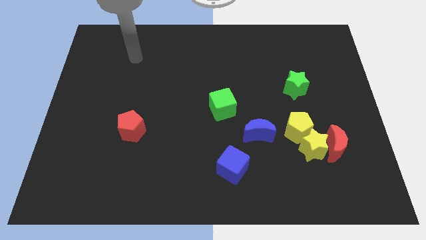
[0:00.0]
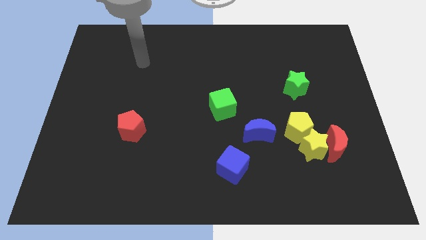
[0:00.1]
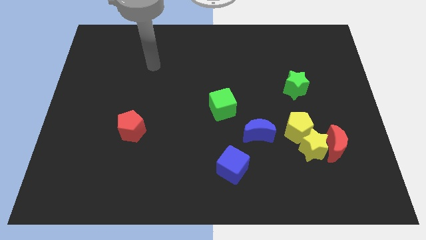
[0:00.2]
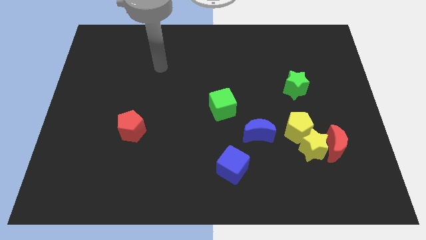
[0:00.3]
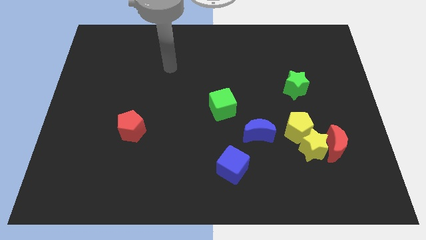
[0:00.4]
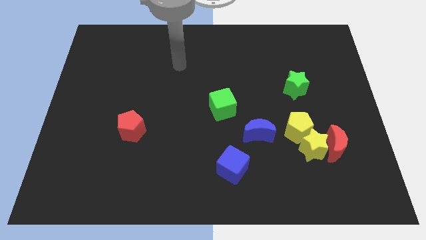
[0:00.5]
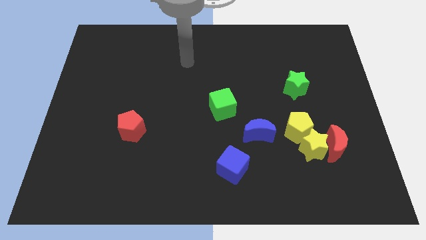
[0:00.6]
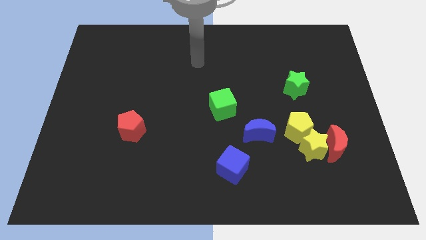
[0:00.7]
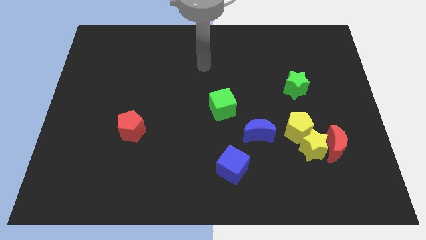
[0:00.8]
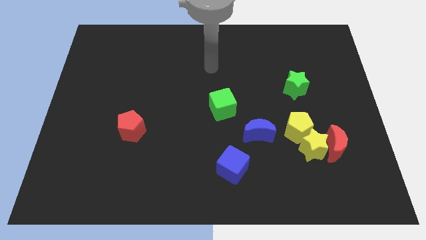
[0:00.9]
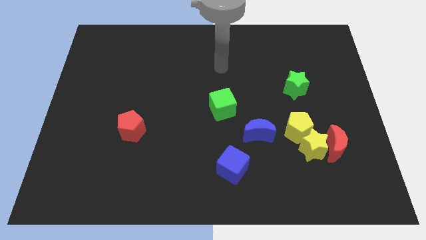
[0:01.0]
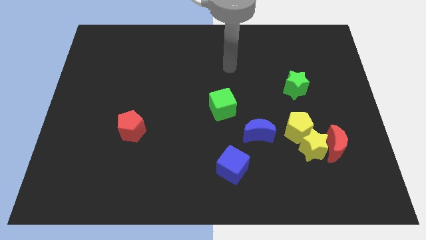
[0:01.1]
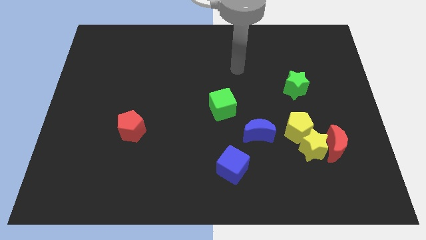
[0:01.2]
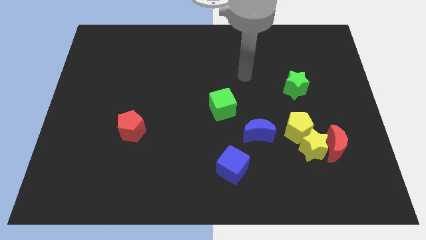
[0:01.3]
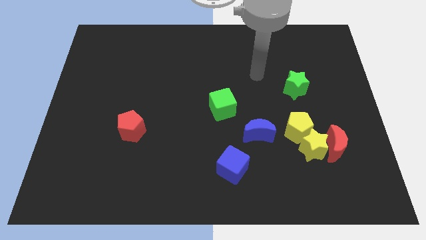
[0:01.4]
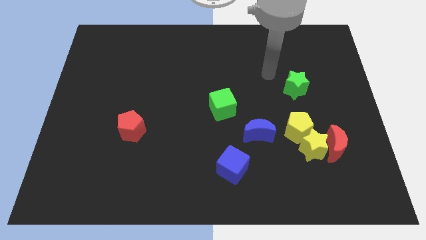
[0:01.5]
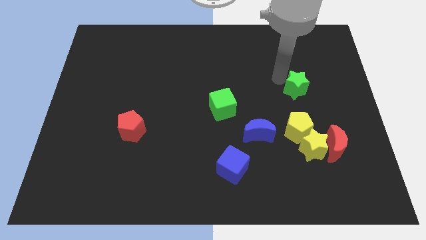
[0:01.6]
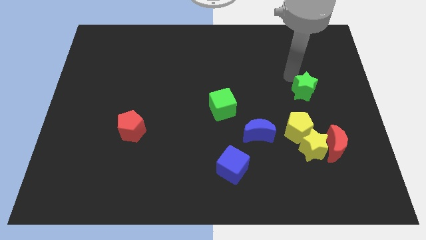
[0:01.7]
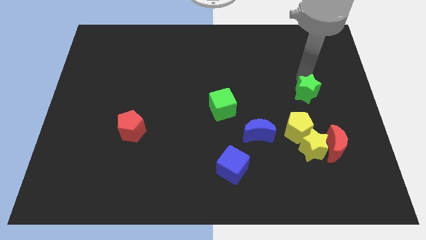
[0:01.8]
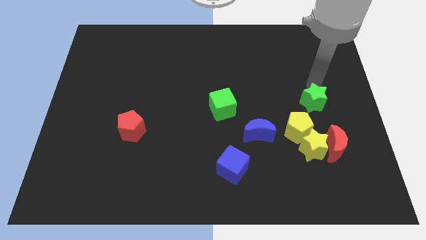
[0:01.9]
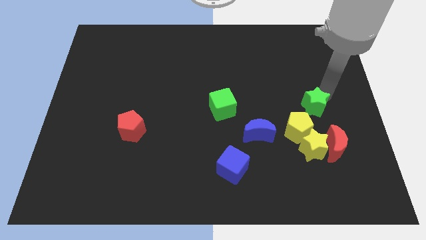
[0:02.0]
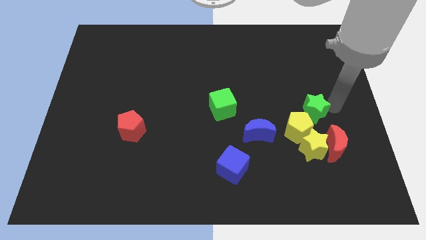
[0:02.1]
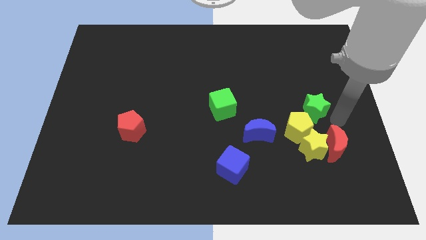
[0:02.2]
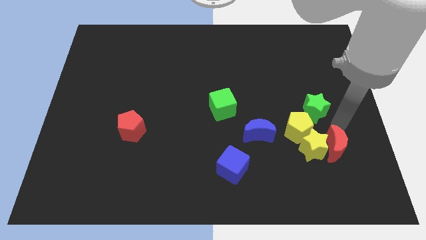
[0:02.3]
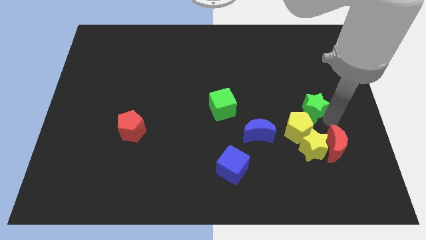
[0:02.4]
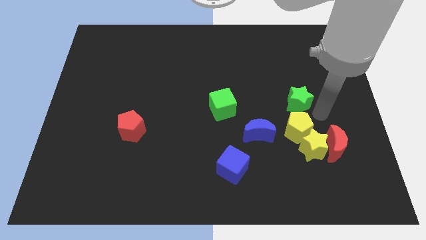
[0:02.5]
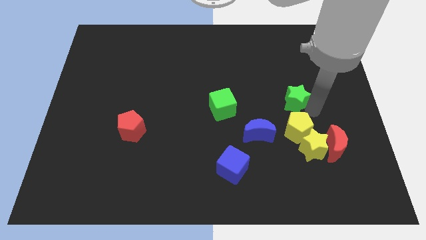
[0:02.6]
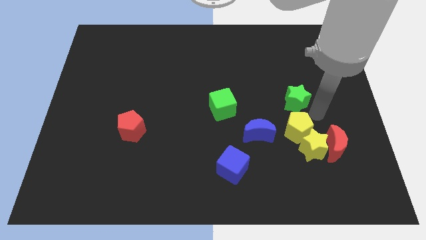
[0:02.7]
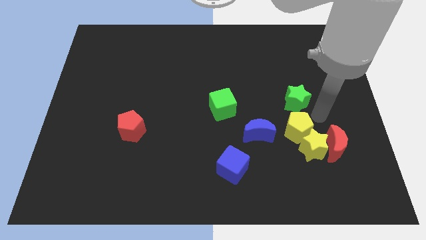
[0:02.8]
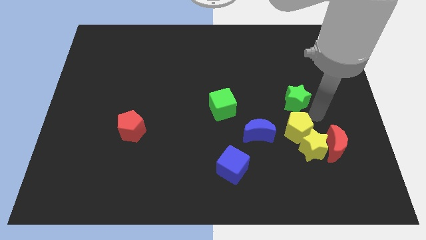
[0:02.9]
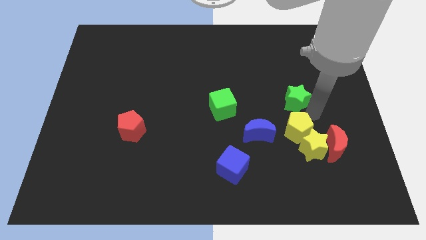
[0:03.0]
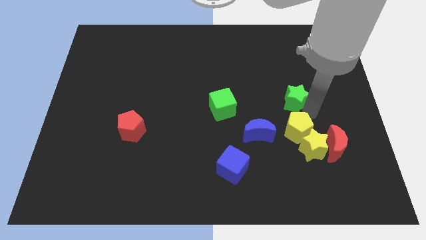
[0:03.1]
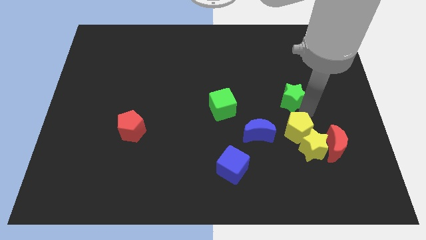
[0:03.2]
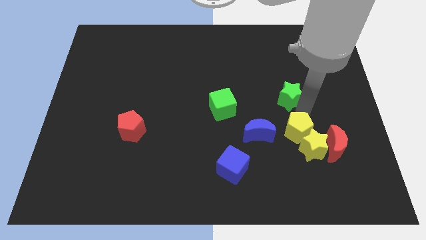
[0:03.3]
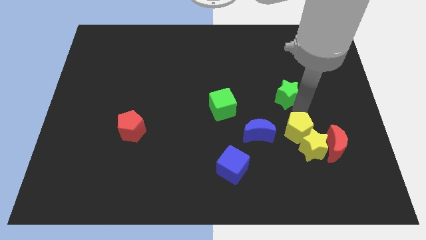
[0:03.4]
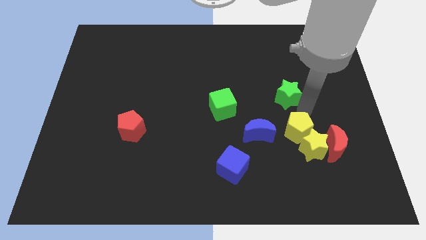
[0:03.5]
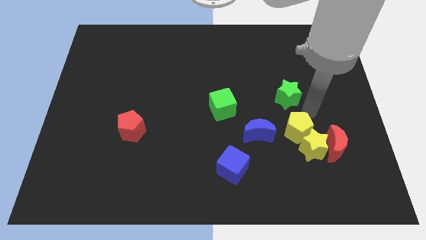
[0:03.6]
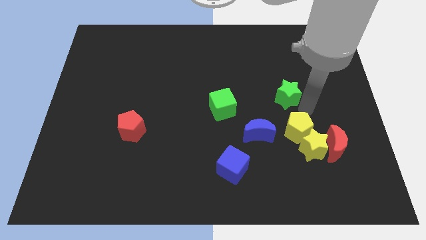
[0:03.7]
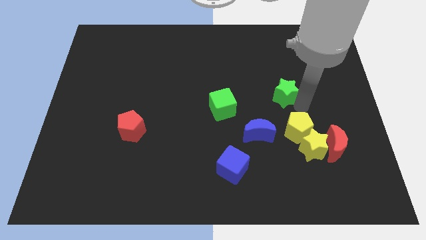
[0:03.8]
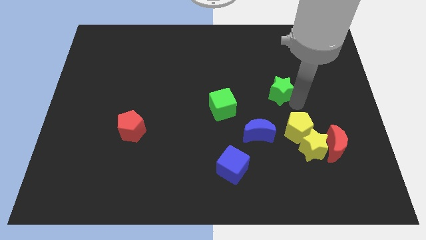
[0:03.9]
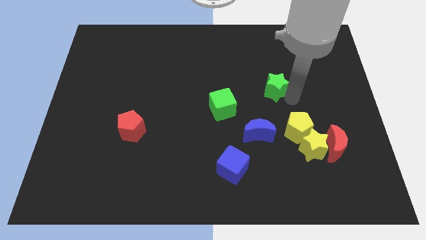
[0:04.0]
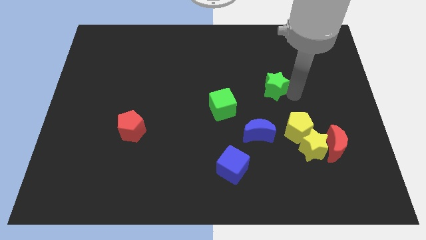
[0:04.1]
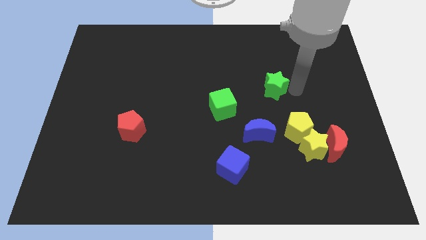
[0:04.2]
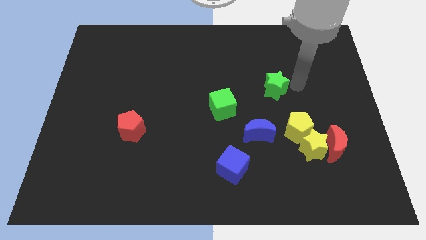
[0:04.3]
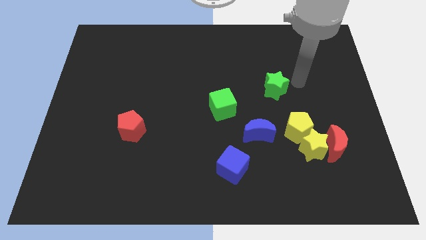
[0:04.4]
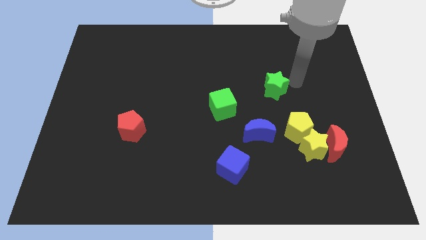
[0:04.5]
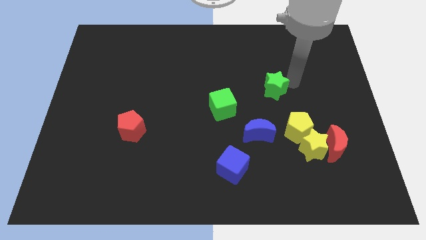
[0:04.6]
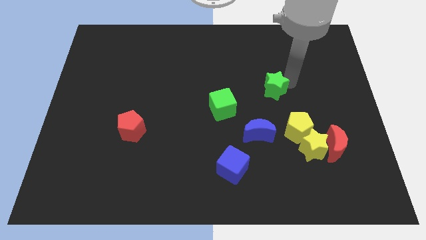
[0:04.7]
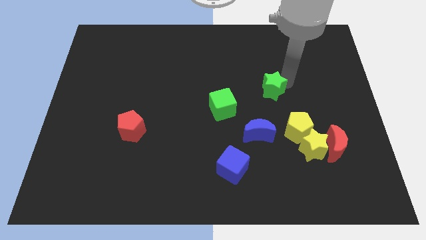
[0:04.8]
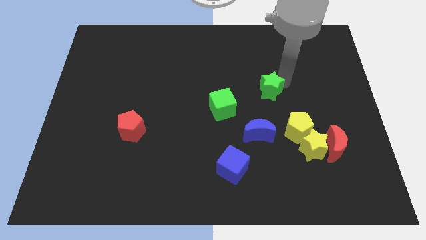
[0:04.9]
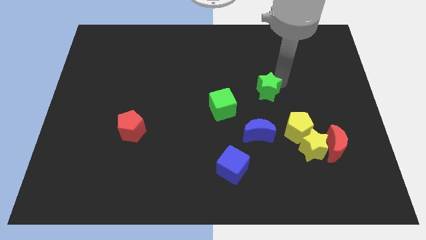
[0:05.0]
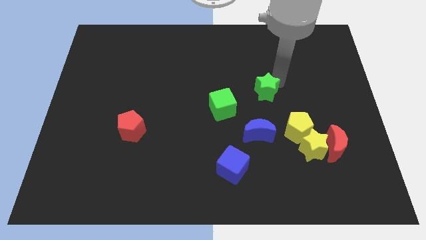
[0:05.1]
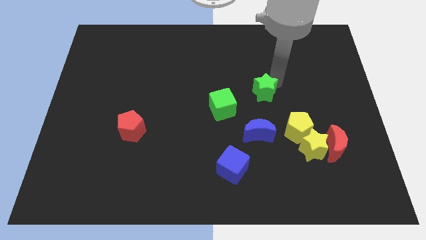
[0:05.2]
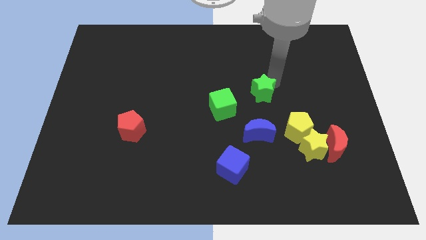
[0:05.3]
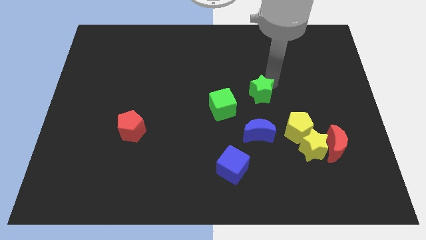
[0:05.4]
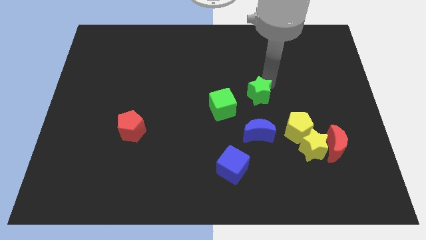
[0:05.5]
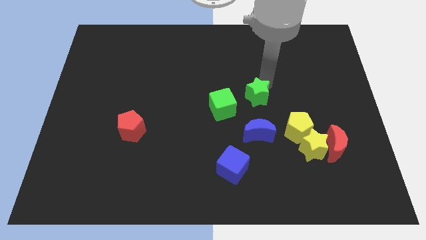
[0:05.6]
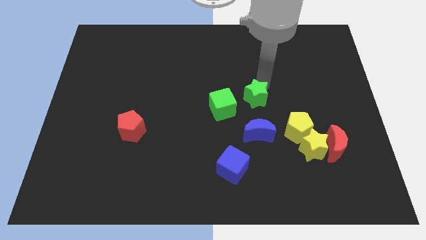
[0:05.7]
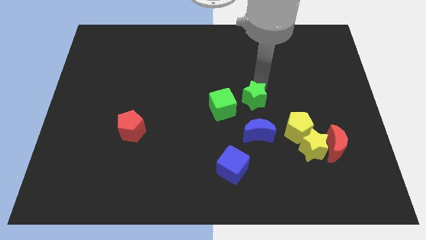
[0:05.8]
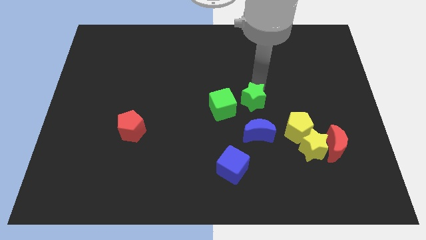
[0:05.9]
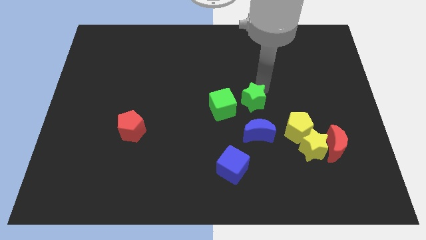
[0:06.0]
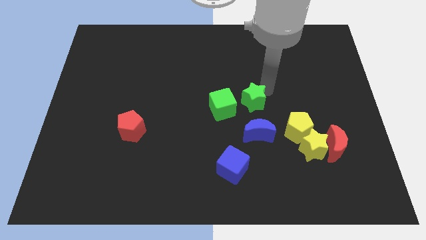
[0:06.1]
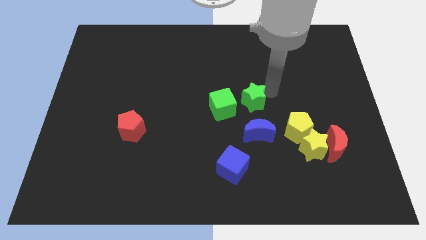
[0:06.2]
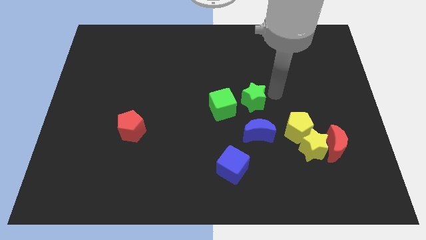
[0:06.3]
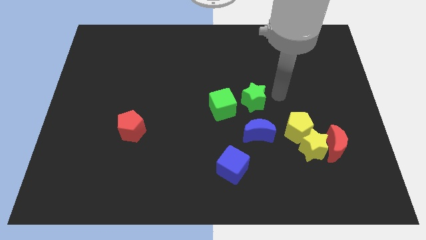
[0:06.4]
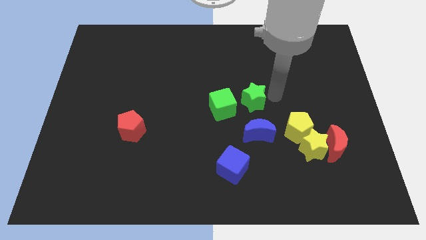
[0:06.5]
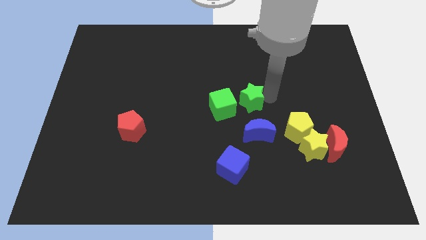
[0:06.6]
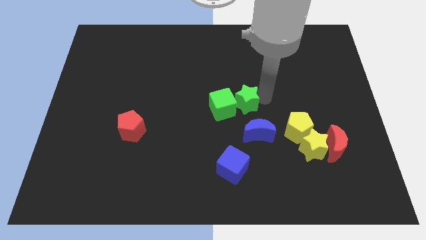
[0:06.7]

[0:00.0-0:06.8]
move the green star to the green cube
